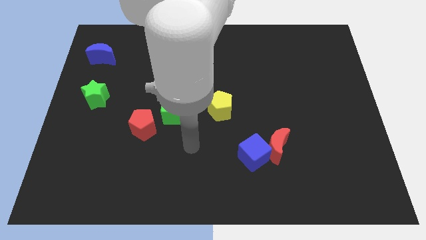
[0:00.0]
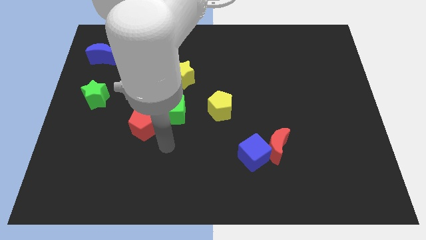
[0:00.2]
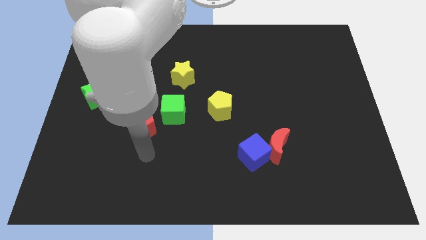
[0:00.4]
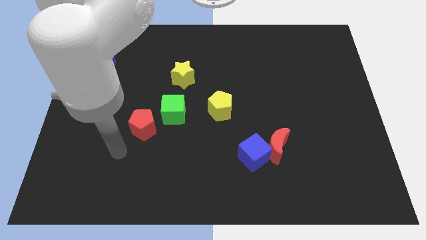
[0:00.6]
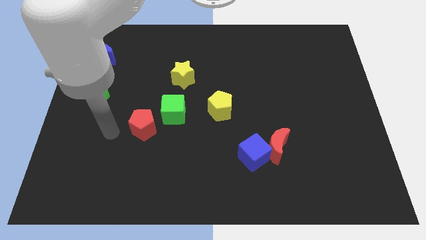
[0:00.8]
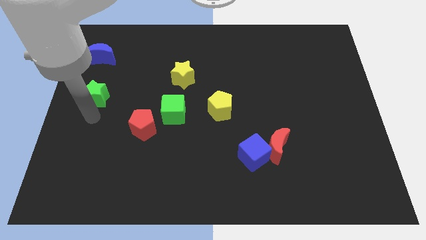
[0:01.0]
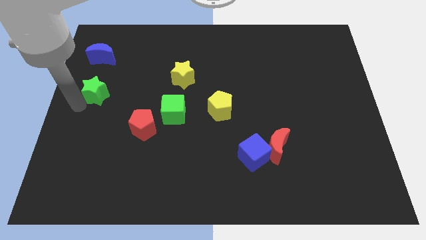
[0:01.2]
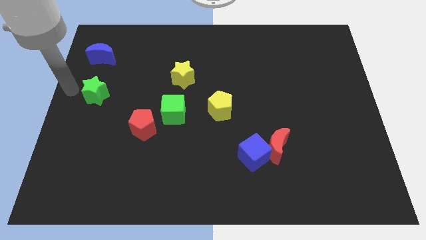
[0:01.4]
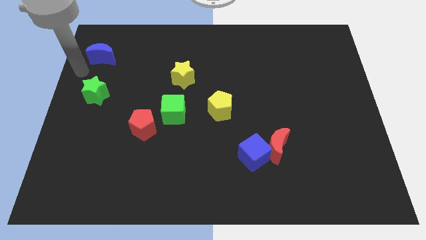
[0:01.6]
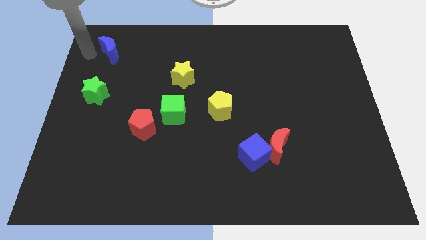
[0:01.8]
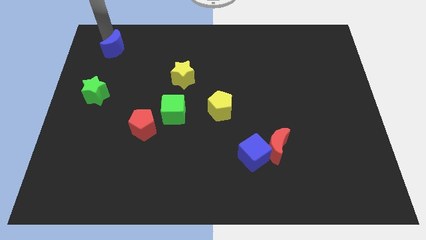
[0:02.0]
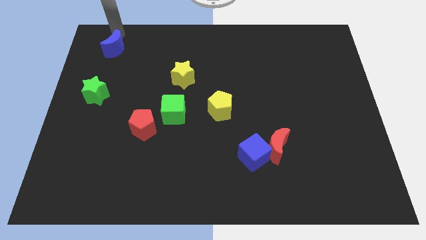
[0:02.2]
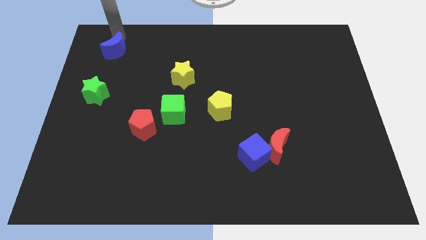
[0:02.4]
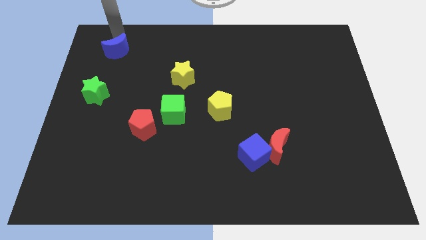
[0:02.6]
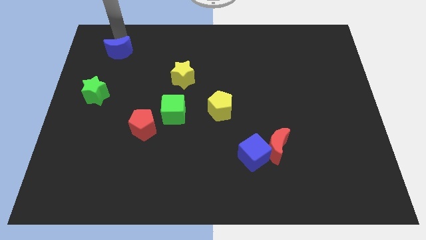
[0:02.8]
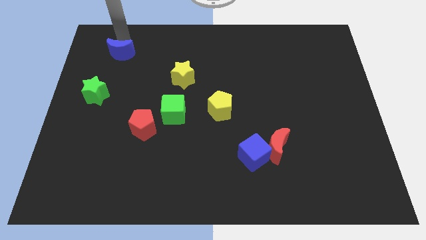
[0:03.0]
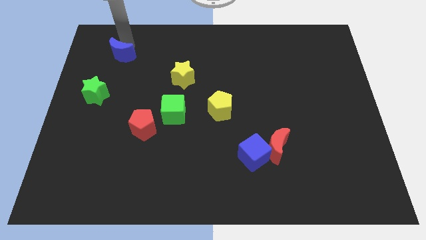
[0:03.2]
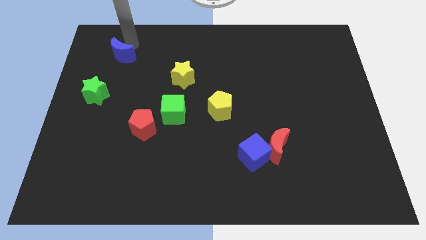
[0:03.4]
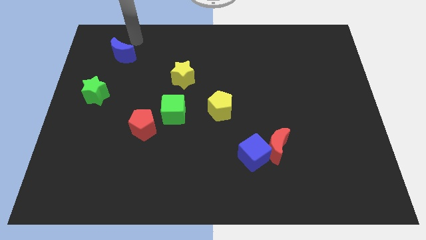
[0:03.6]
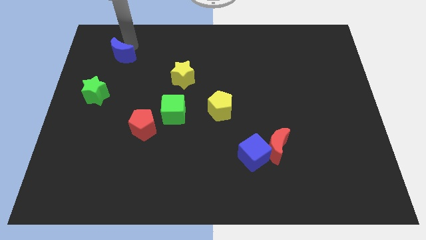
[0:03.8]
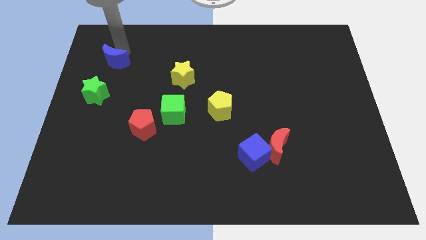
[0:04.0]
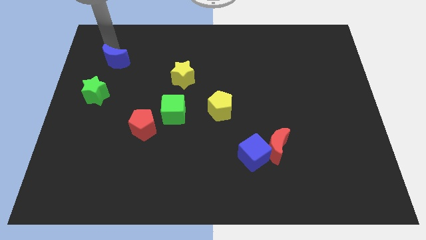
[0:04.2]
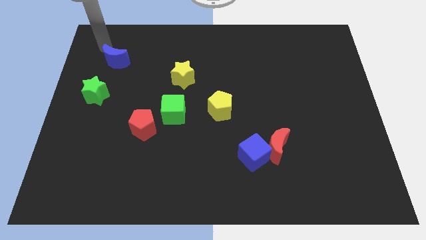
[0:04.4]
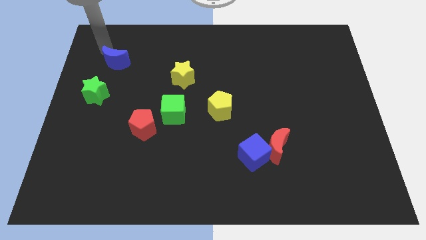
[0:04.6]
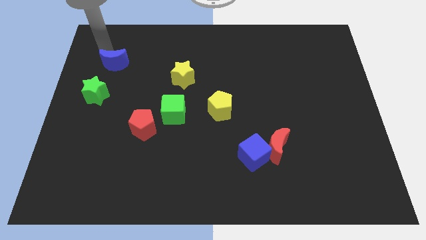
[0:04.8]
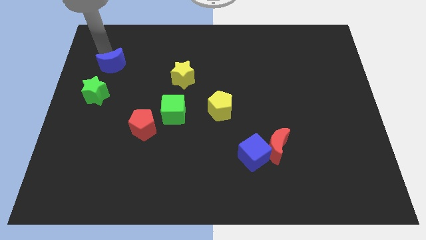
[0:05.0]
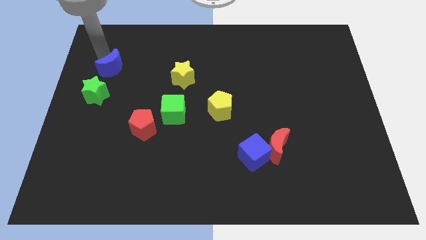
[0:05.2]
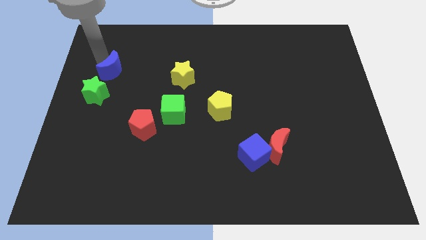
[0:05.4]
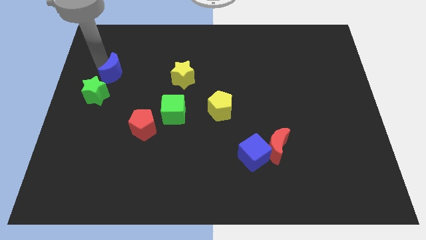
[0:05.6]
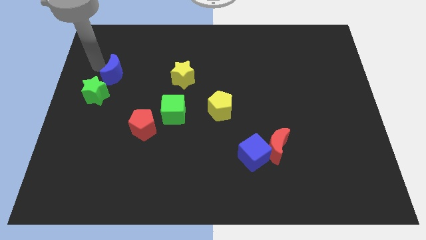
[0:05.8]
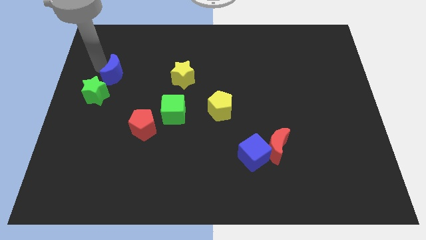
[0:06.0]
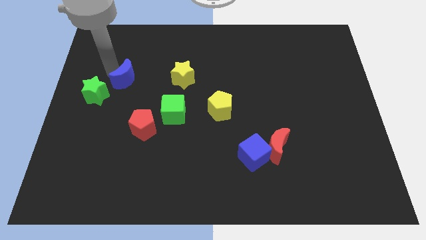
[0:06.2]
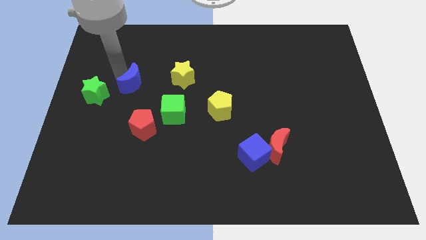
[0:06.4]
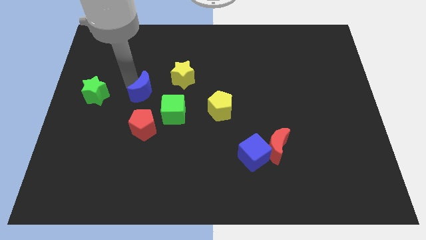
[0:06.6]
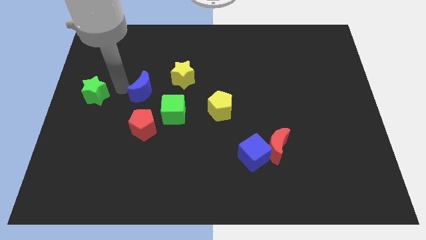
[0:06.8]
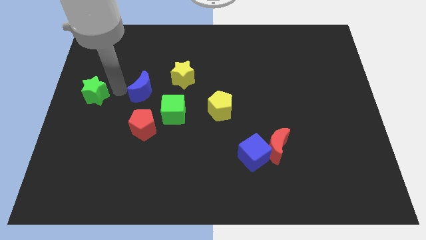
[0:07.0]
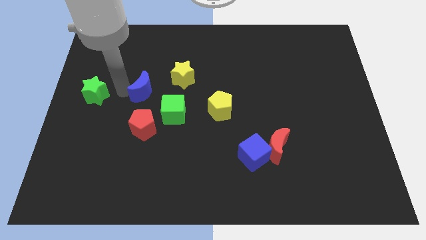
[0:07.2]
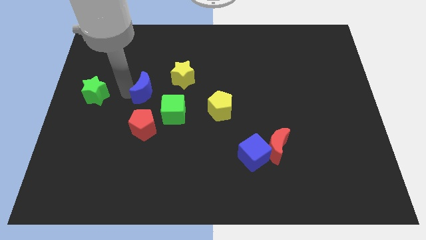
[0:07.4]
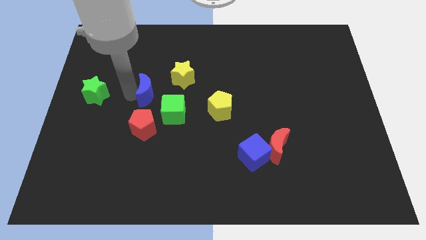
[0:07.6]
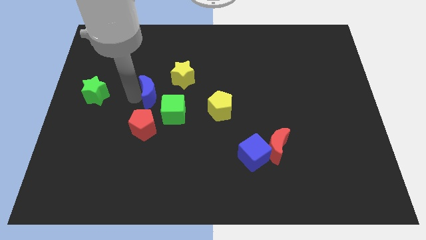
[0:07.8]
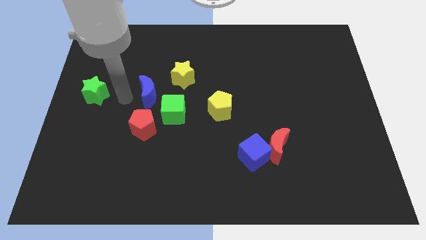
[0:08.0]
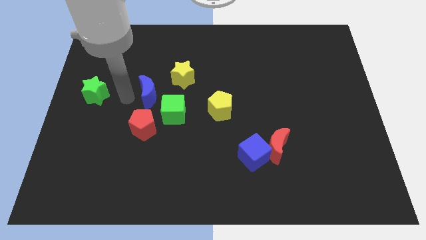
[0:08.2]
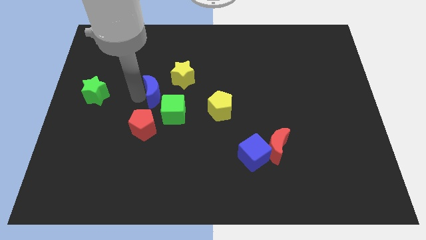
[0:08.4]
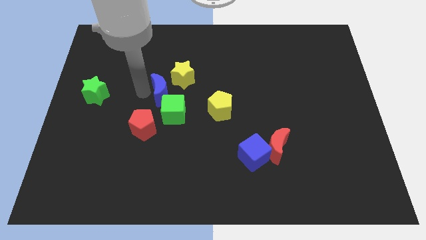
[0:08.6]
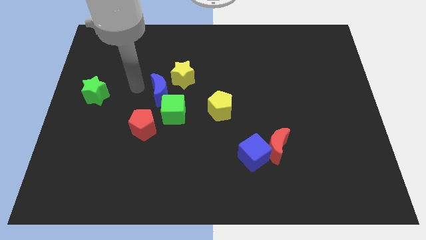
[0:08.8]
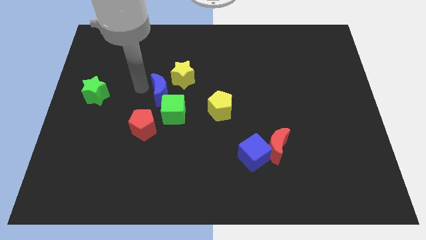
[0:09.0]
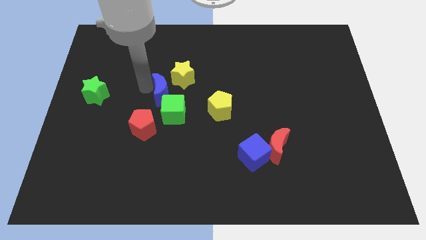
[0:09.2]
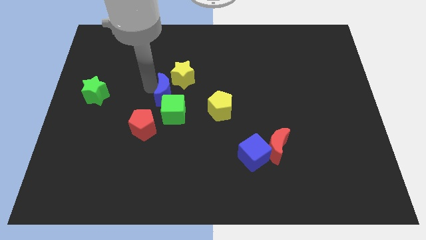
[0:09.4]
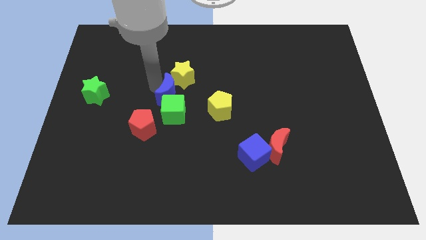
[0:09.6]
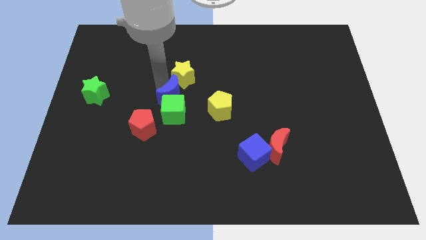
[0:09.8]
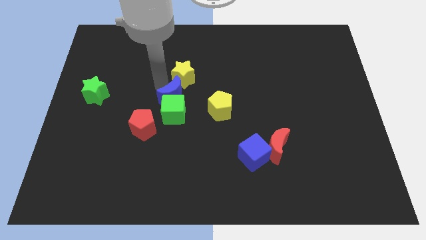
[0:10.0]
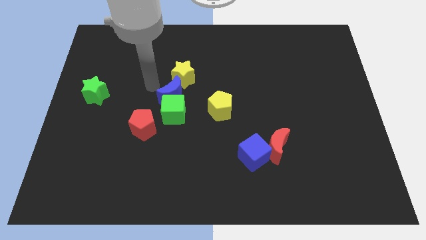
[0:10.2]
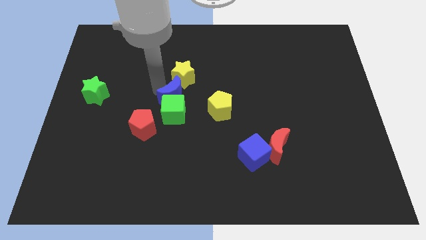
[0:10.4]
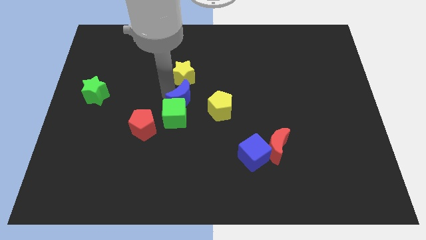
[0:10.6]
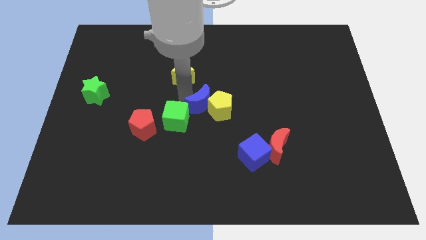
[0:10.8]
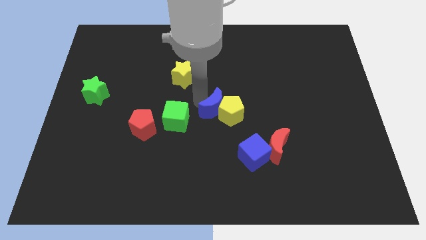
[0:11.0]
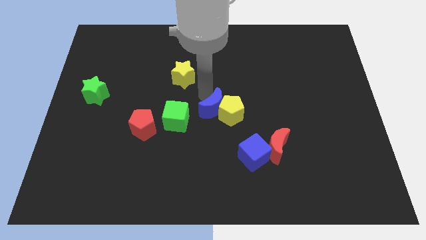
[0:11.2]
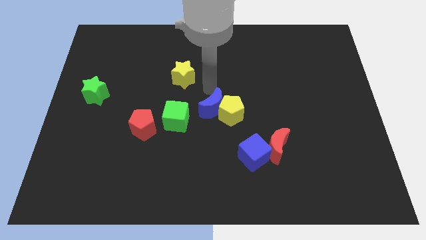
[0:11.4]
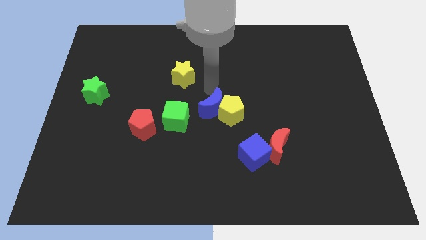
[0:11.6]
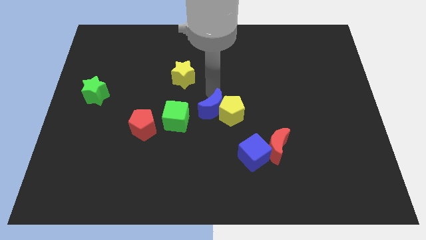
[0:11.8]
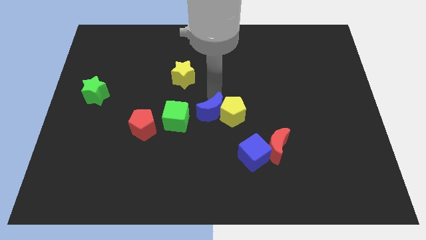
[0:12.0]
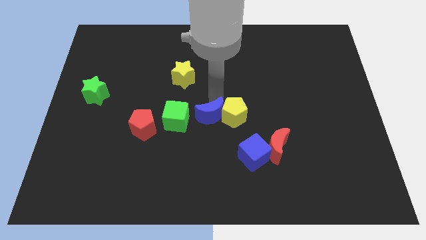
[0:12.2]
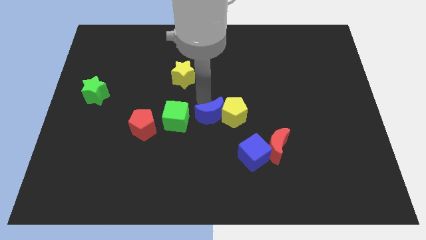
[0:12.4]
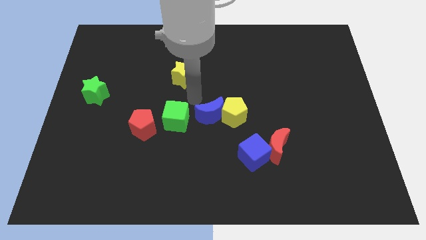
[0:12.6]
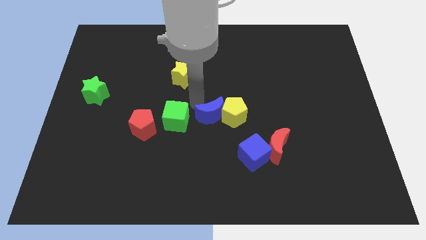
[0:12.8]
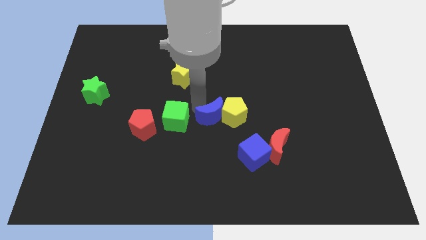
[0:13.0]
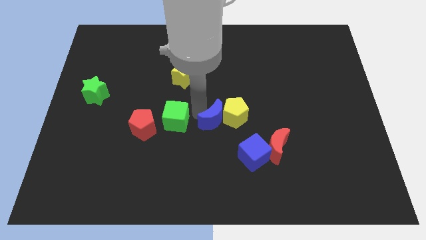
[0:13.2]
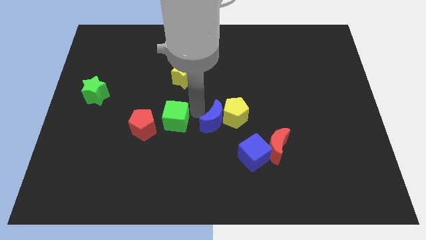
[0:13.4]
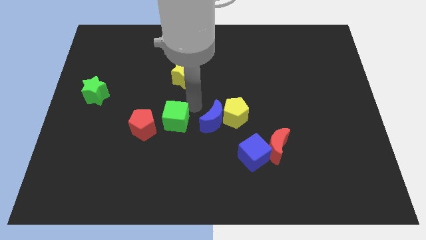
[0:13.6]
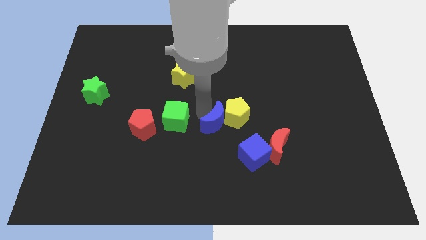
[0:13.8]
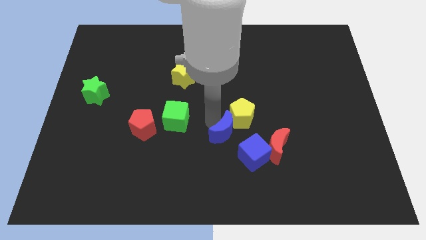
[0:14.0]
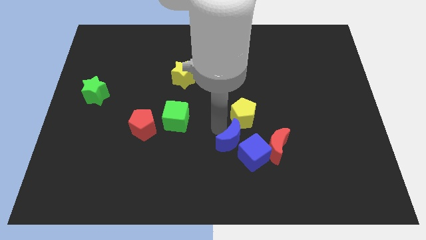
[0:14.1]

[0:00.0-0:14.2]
slide the blue moon towards the blue cube
